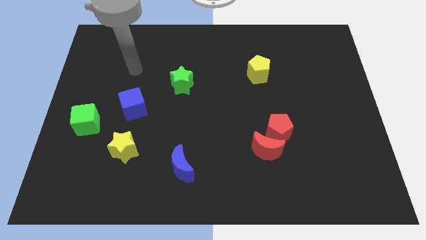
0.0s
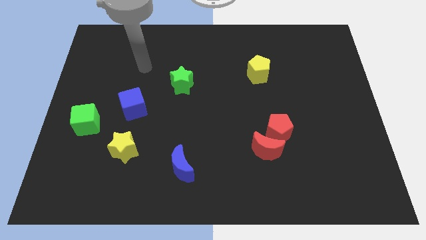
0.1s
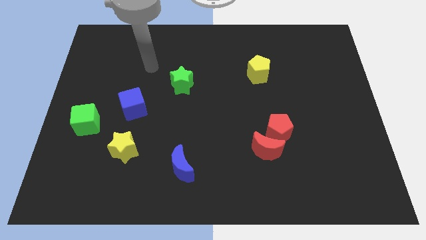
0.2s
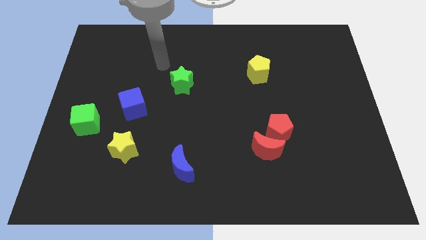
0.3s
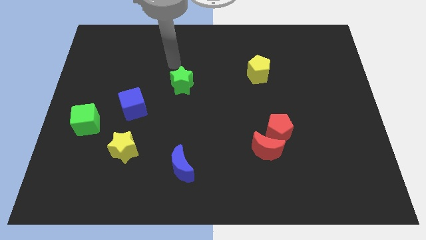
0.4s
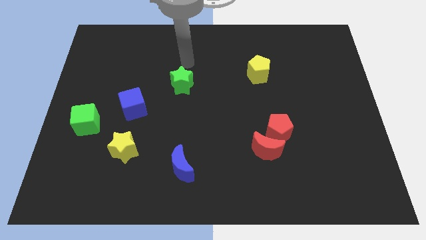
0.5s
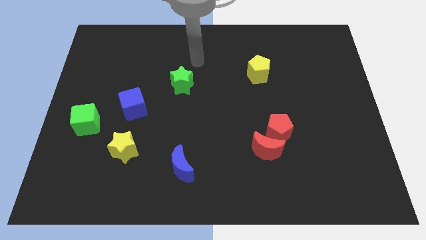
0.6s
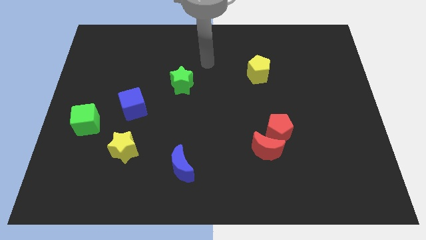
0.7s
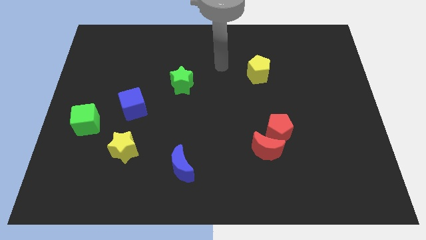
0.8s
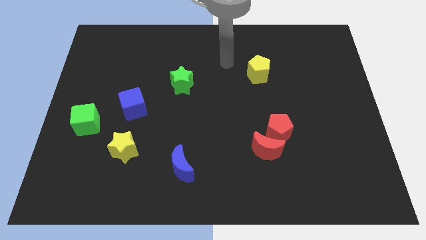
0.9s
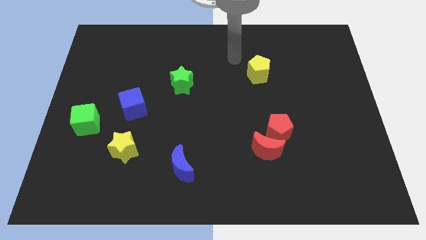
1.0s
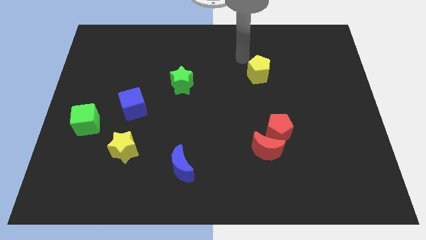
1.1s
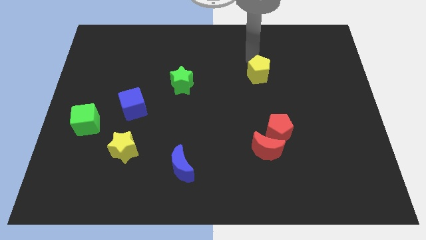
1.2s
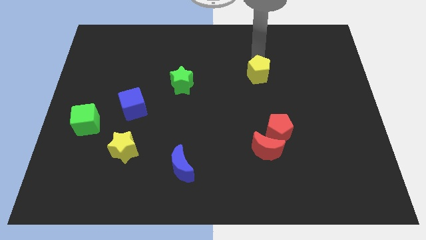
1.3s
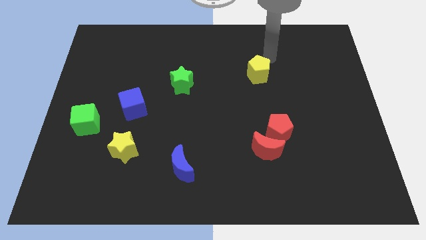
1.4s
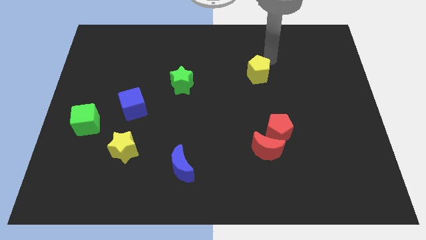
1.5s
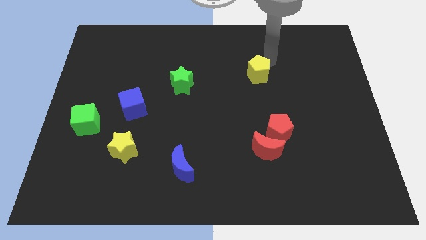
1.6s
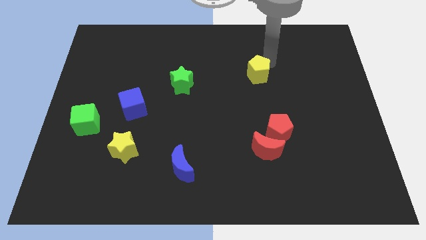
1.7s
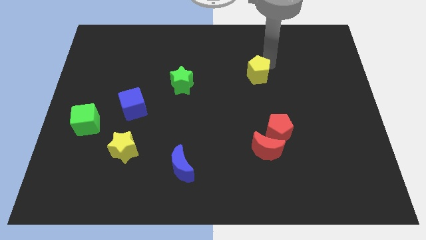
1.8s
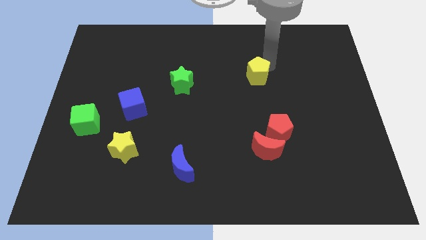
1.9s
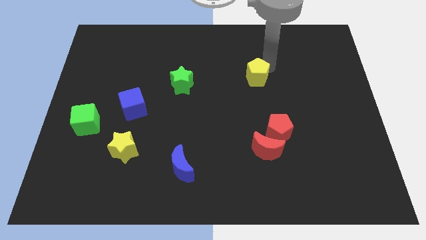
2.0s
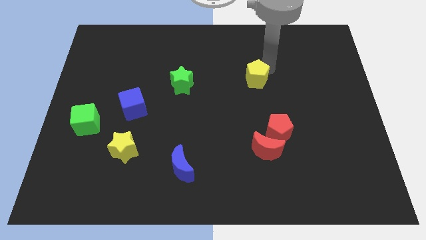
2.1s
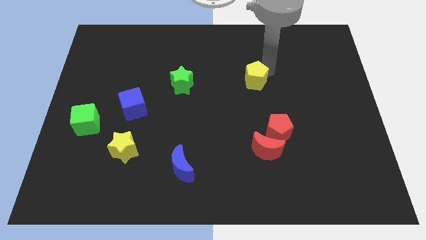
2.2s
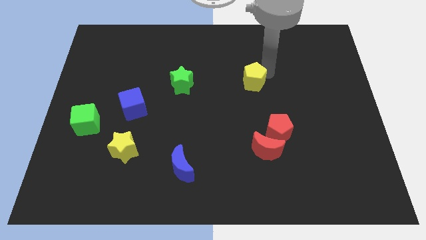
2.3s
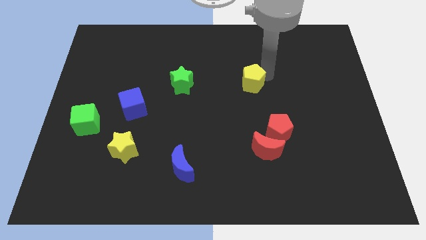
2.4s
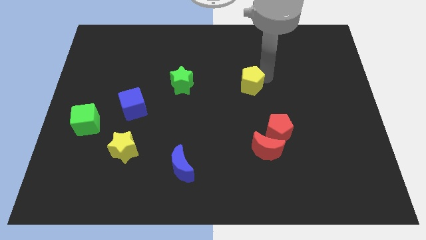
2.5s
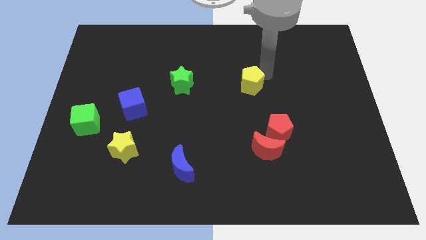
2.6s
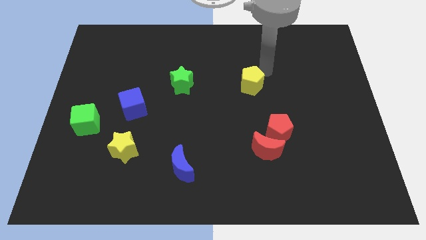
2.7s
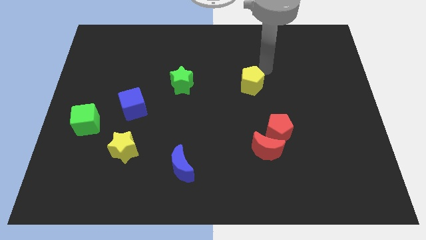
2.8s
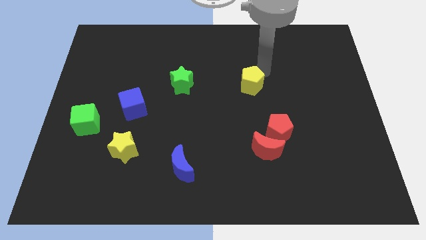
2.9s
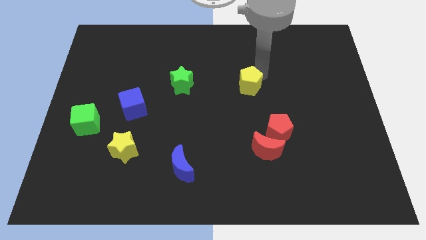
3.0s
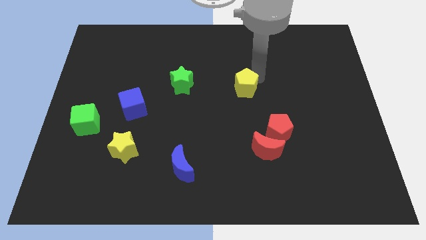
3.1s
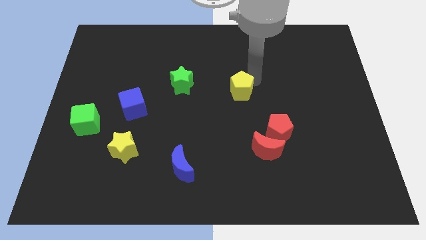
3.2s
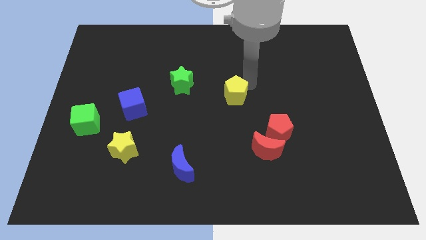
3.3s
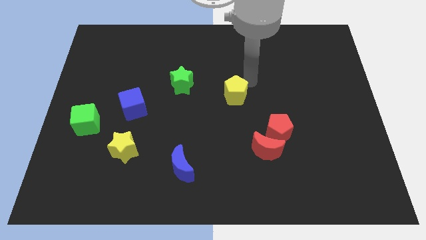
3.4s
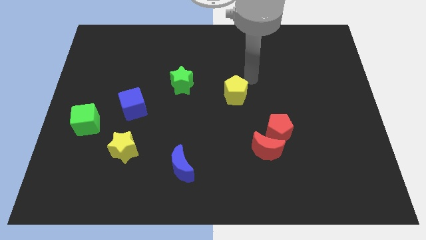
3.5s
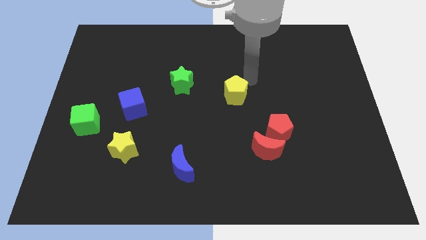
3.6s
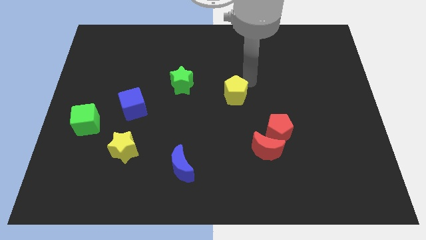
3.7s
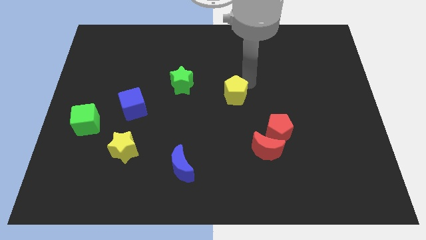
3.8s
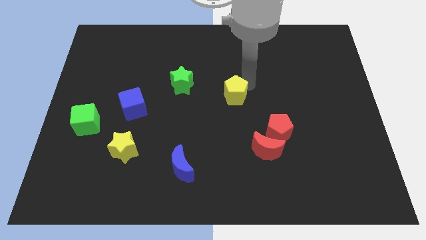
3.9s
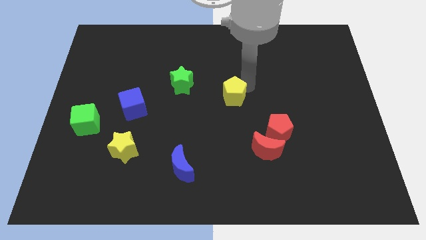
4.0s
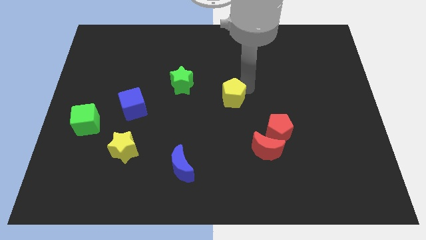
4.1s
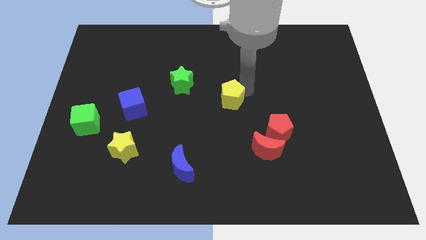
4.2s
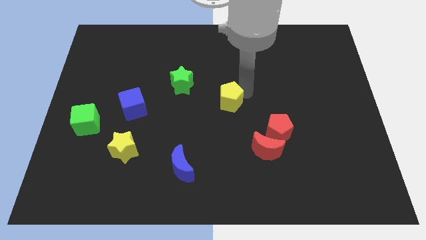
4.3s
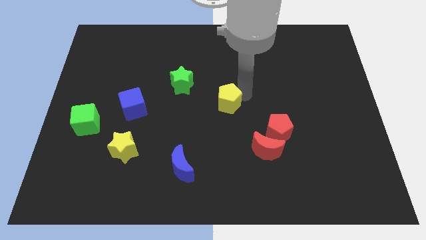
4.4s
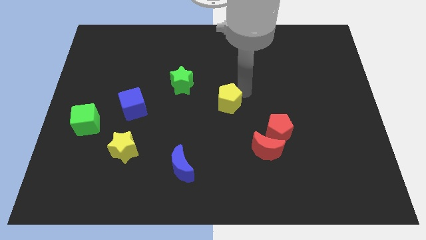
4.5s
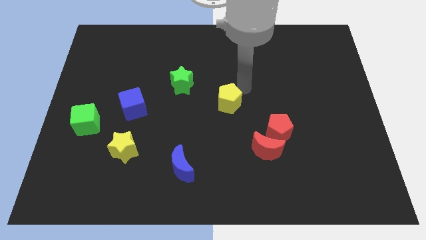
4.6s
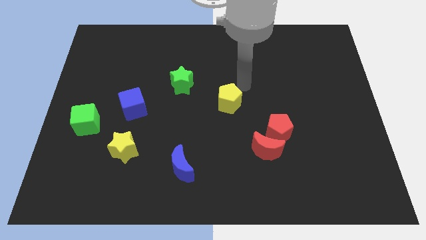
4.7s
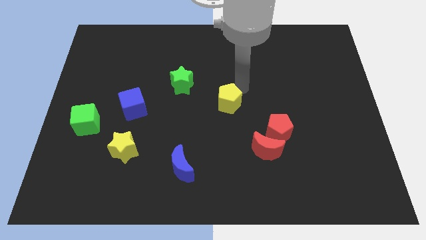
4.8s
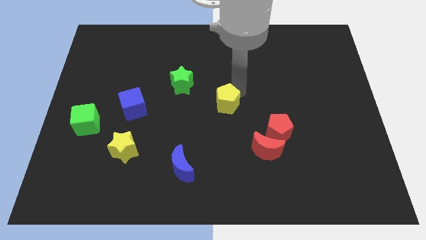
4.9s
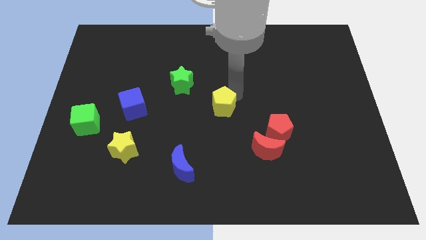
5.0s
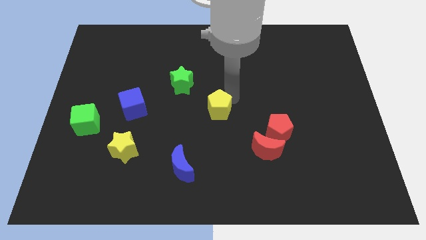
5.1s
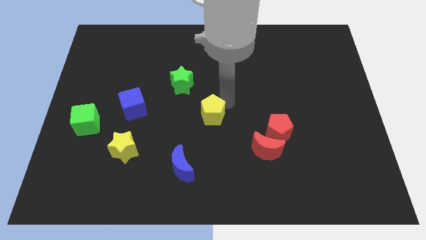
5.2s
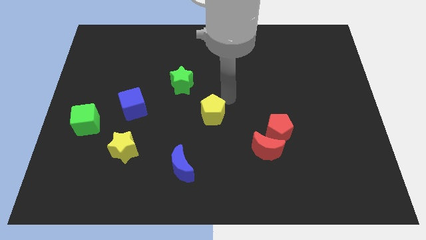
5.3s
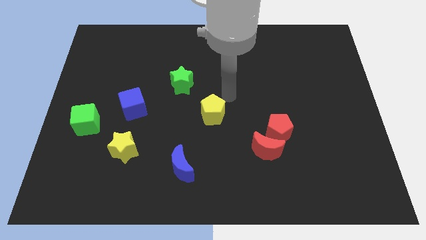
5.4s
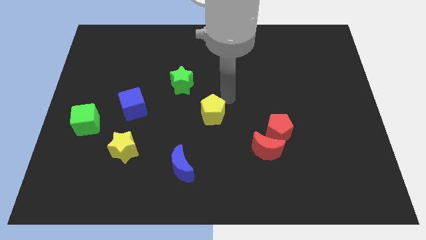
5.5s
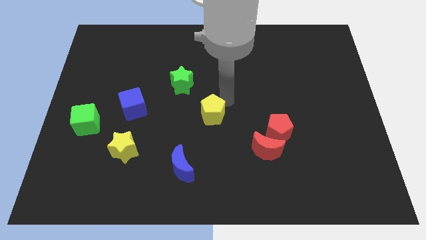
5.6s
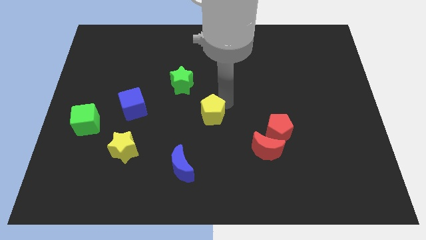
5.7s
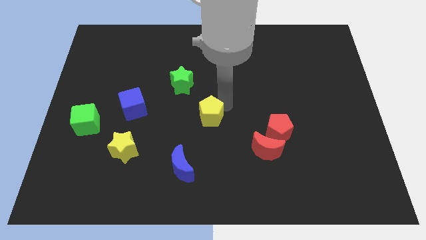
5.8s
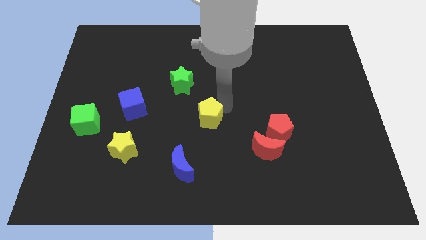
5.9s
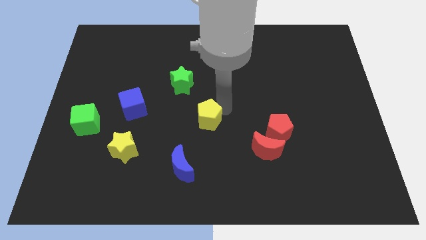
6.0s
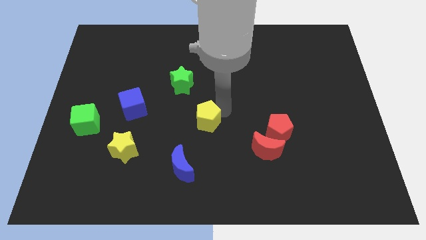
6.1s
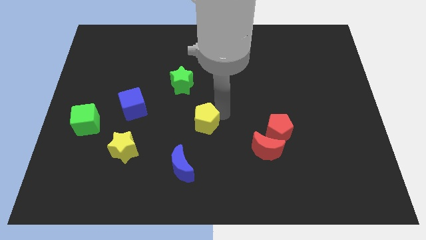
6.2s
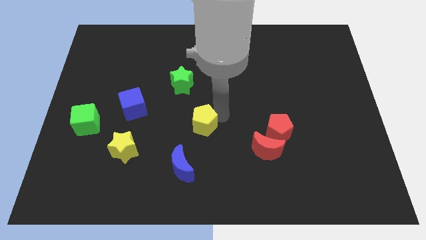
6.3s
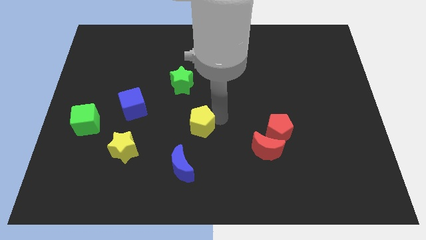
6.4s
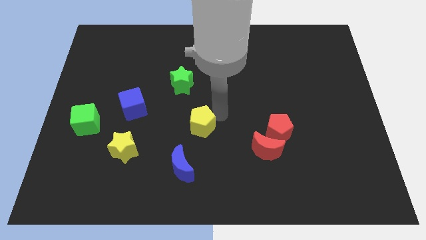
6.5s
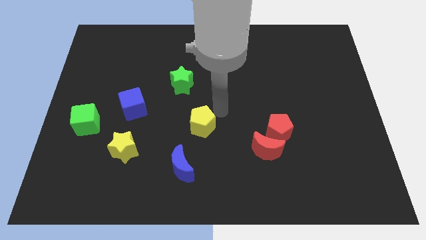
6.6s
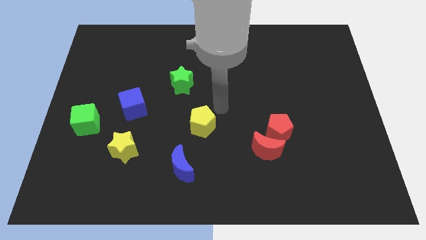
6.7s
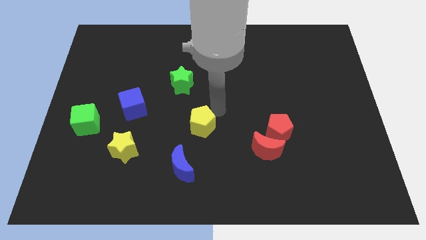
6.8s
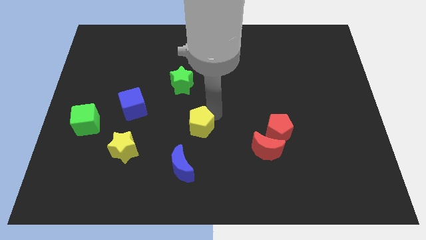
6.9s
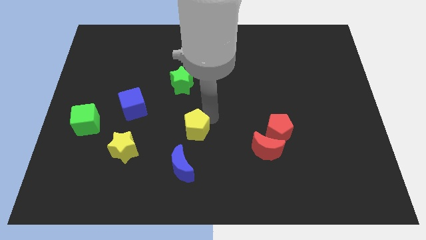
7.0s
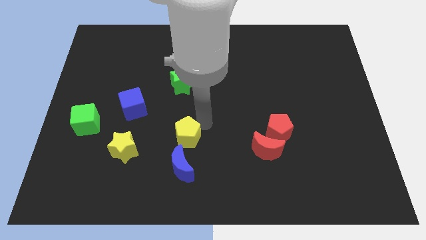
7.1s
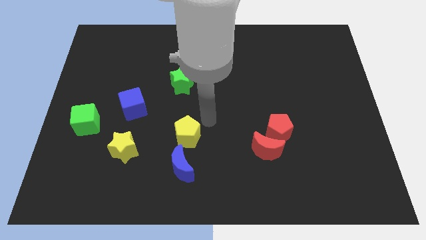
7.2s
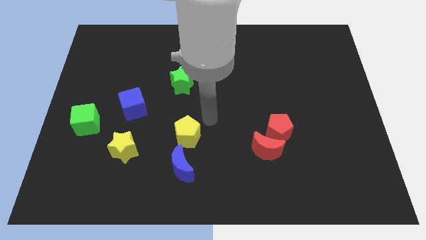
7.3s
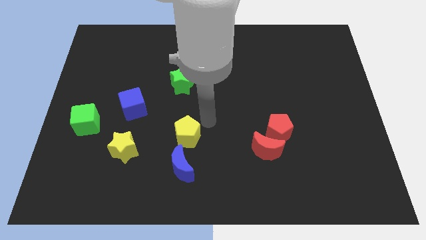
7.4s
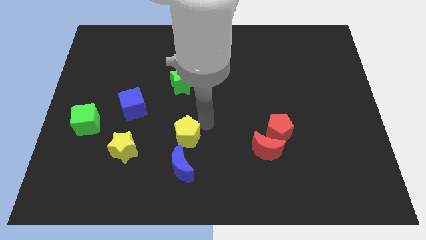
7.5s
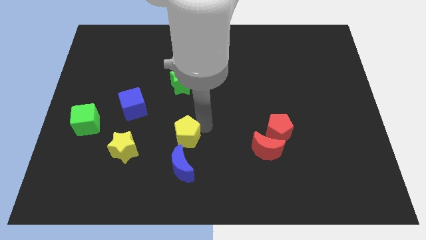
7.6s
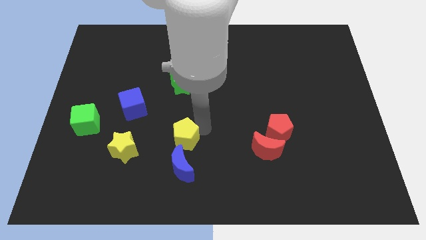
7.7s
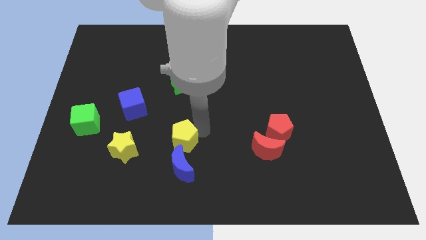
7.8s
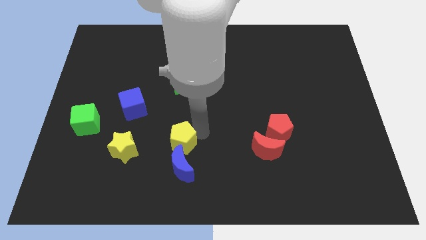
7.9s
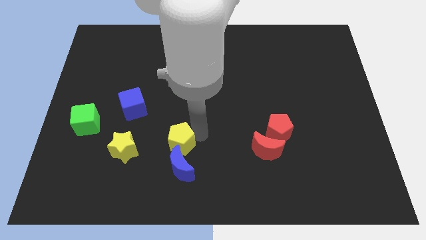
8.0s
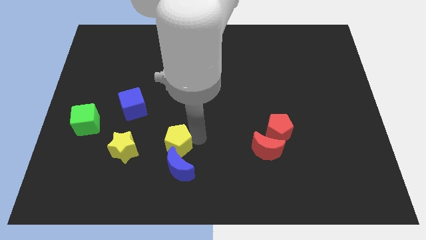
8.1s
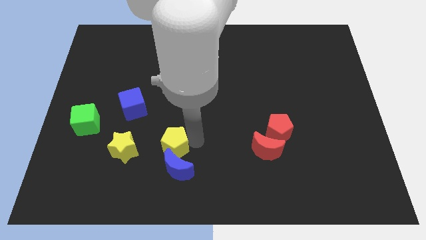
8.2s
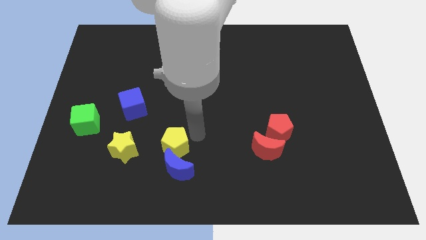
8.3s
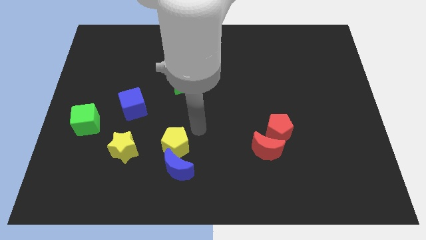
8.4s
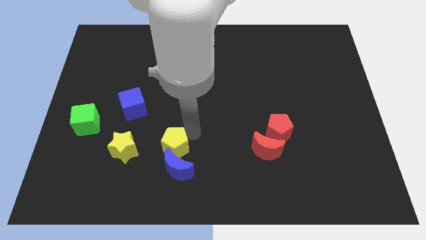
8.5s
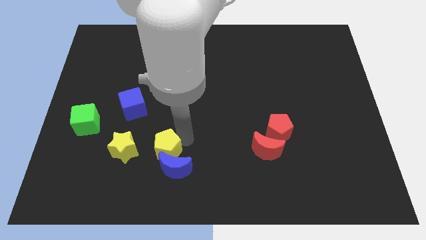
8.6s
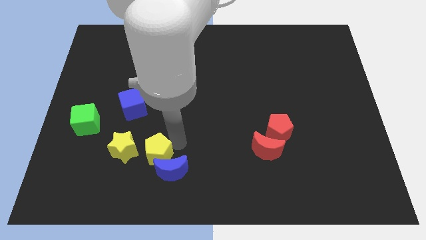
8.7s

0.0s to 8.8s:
move the yellow pentagon diagonally down and to the right of the yellow star
